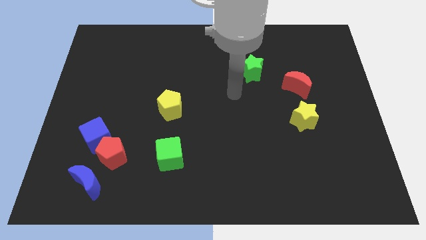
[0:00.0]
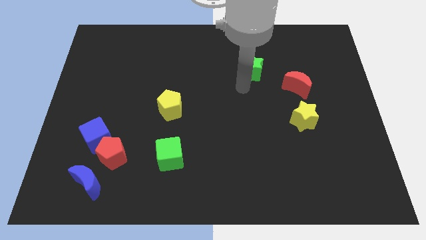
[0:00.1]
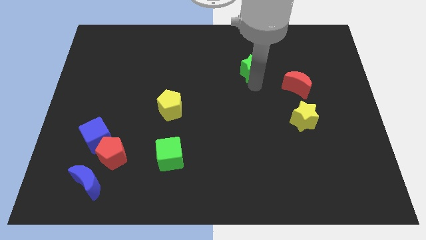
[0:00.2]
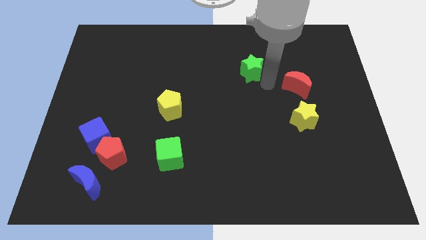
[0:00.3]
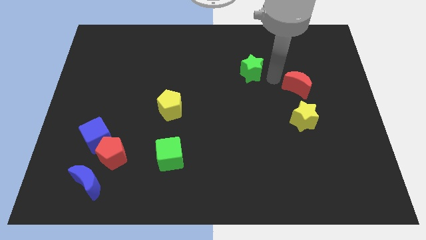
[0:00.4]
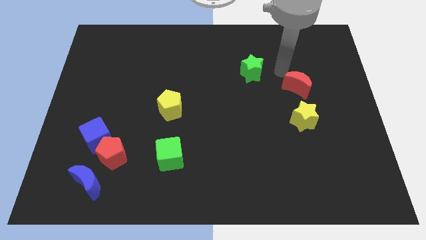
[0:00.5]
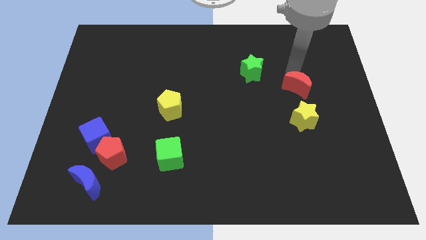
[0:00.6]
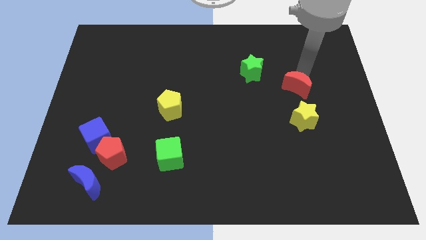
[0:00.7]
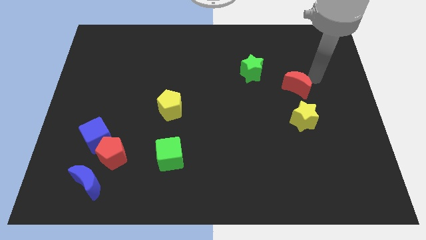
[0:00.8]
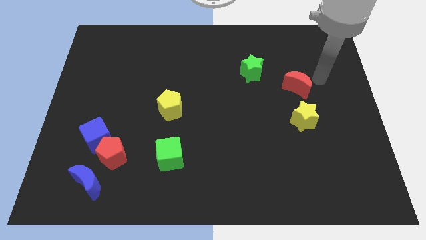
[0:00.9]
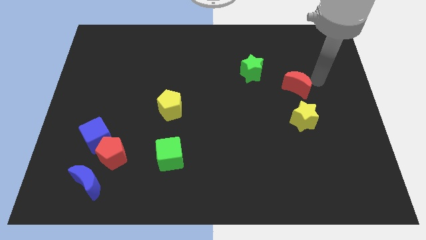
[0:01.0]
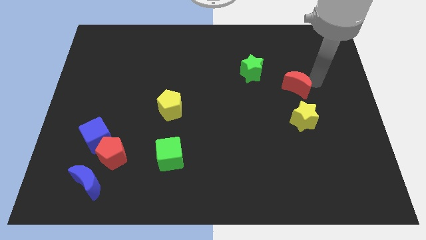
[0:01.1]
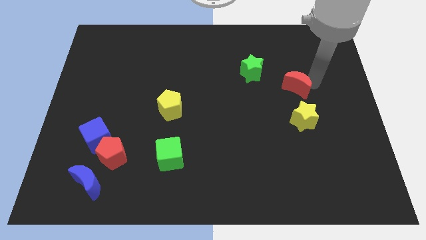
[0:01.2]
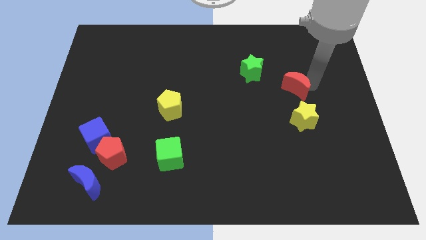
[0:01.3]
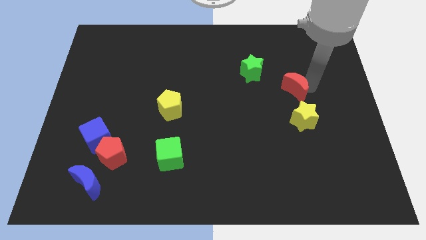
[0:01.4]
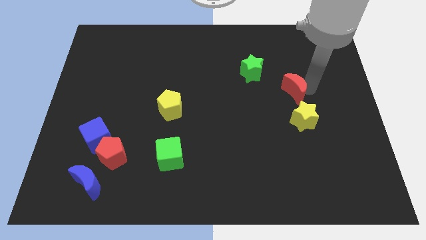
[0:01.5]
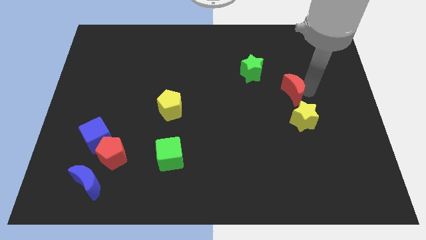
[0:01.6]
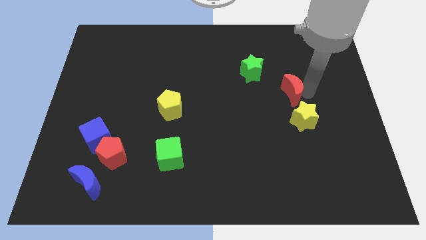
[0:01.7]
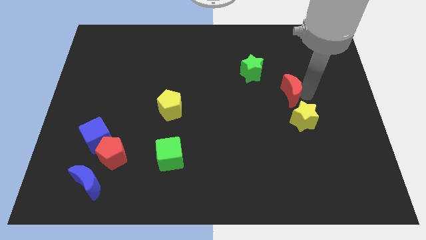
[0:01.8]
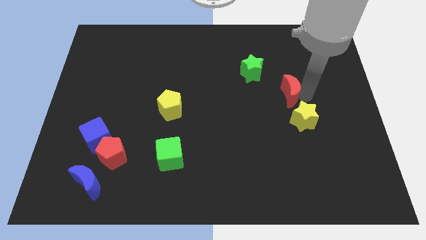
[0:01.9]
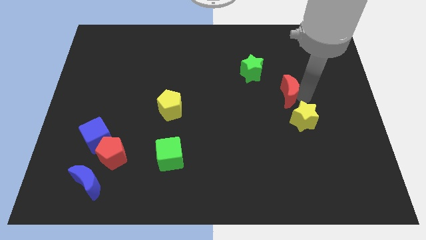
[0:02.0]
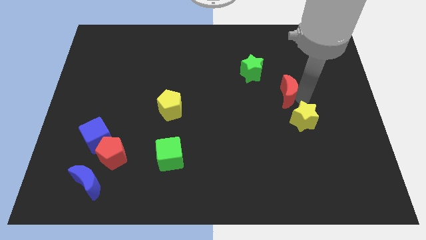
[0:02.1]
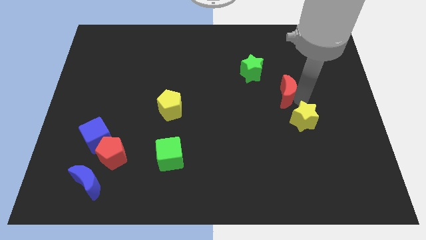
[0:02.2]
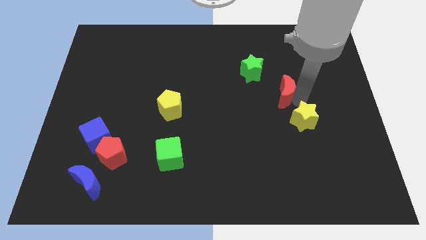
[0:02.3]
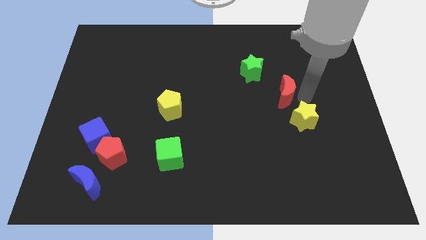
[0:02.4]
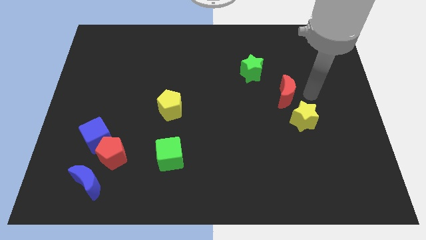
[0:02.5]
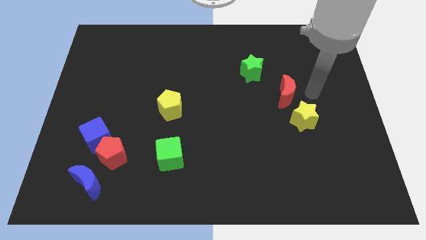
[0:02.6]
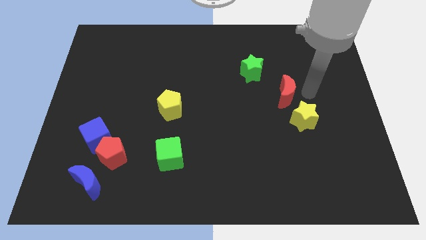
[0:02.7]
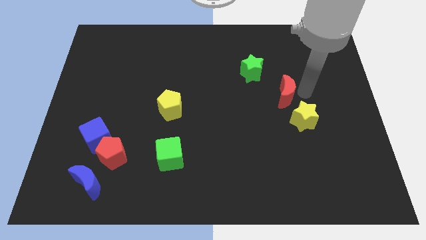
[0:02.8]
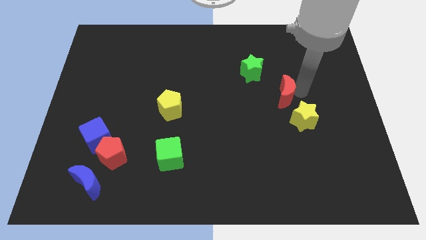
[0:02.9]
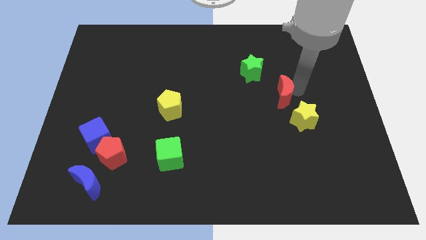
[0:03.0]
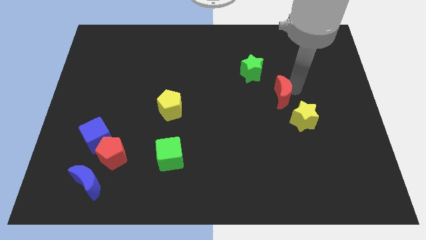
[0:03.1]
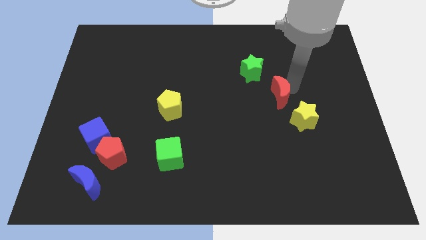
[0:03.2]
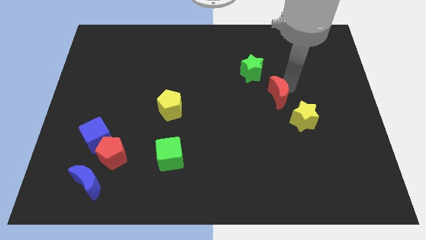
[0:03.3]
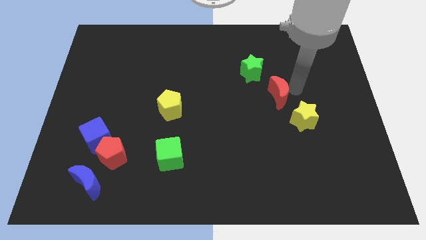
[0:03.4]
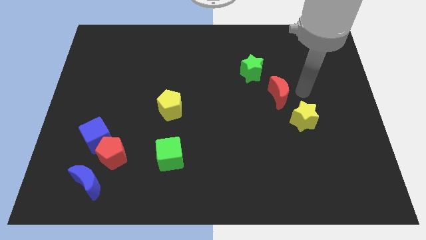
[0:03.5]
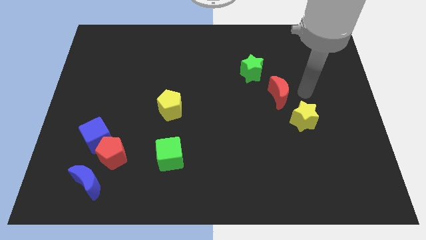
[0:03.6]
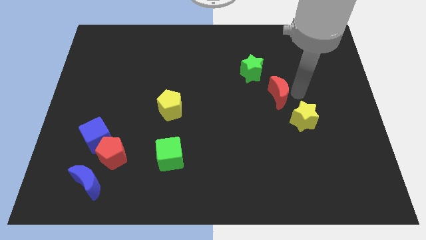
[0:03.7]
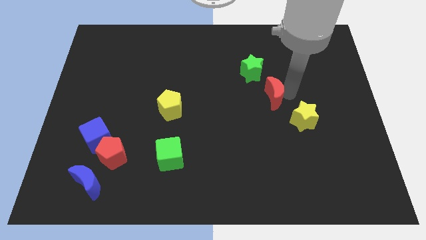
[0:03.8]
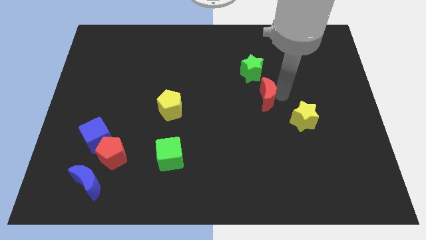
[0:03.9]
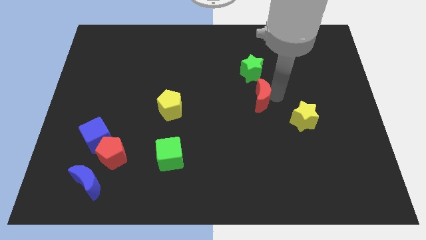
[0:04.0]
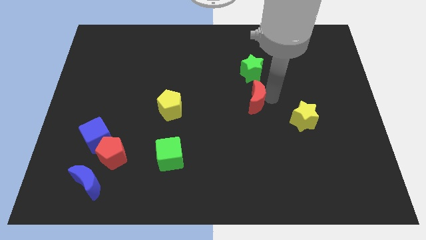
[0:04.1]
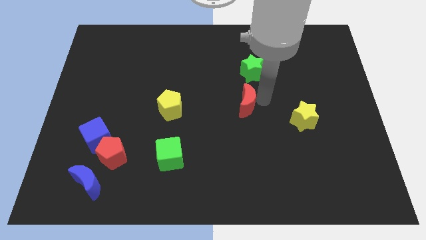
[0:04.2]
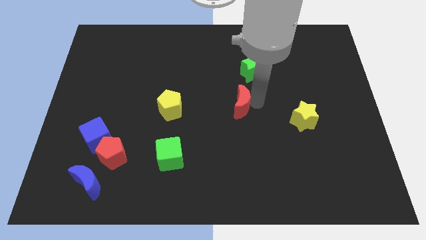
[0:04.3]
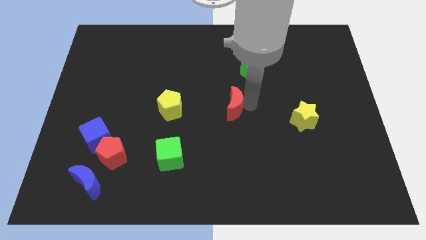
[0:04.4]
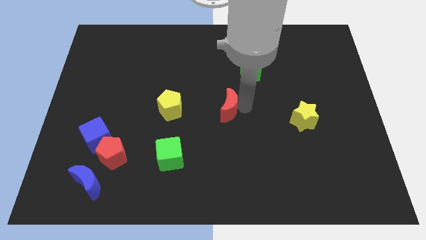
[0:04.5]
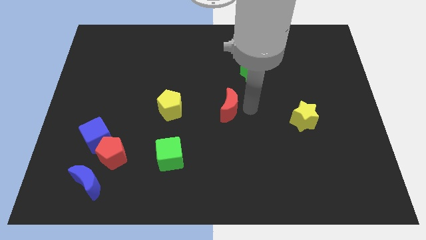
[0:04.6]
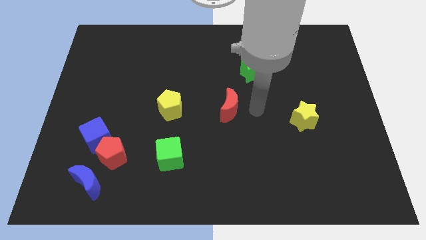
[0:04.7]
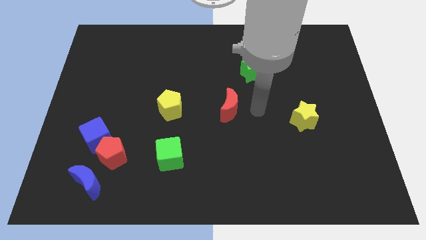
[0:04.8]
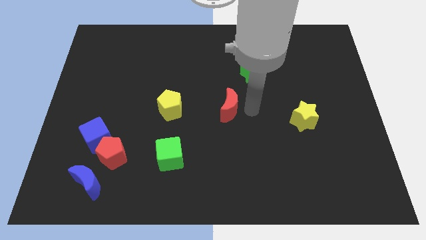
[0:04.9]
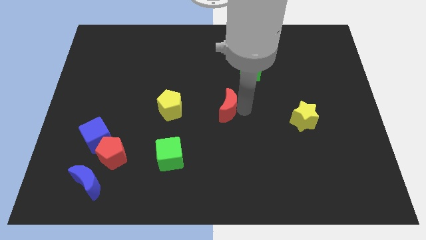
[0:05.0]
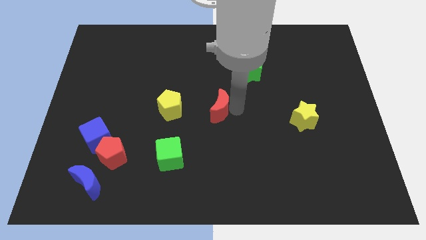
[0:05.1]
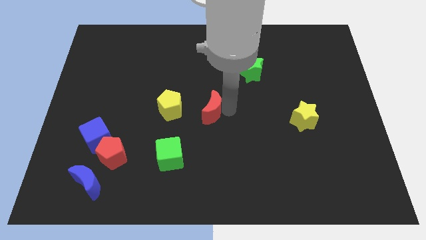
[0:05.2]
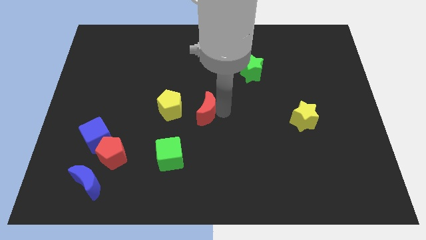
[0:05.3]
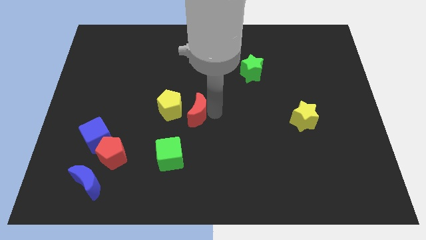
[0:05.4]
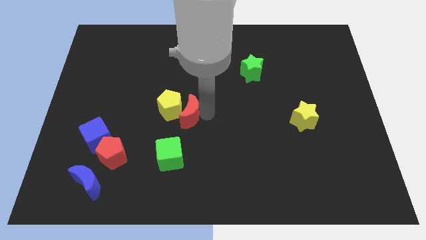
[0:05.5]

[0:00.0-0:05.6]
put the red moon close to the yellow pentagon

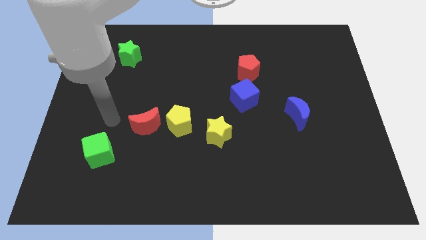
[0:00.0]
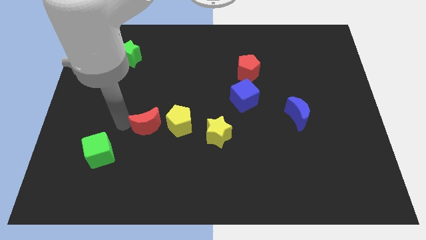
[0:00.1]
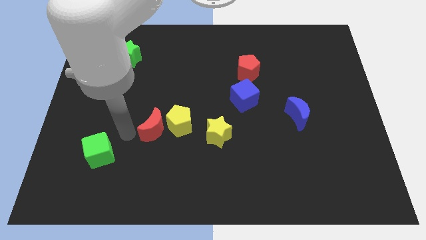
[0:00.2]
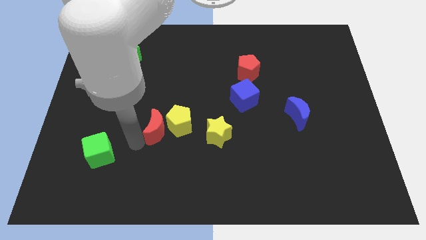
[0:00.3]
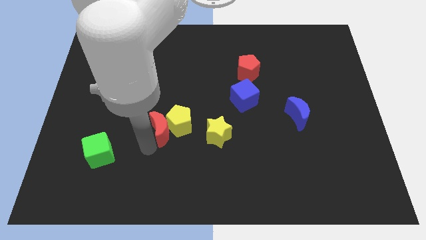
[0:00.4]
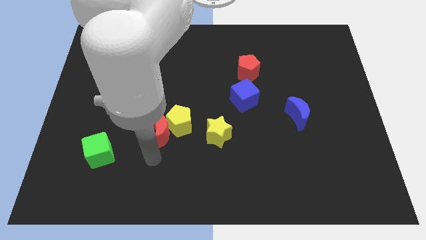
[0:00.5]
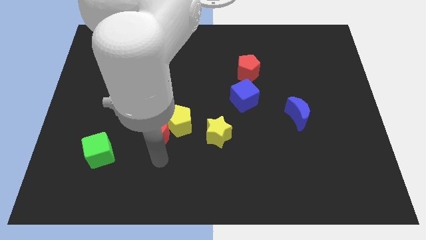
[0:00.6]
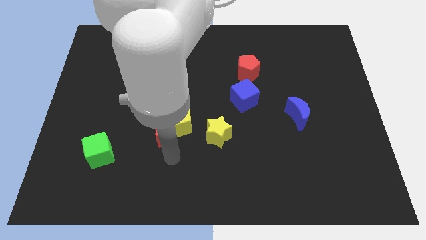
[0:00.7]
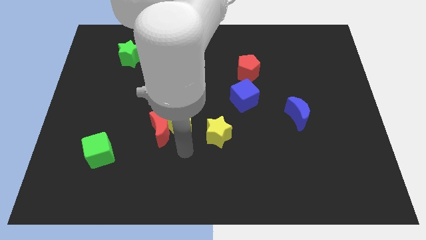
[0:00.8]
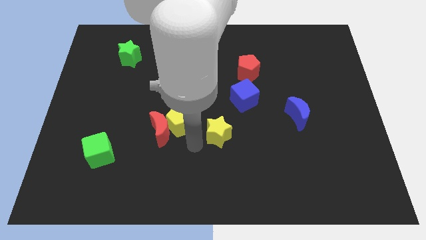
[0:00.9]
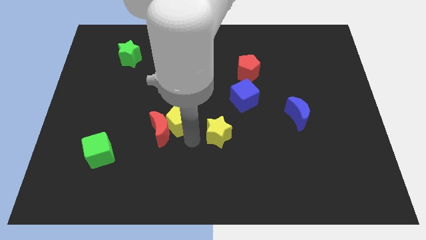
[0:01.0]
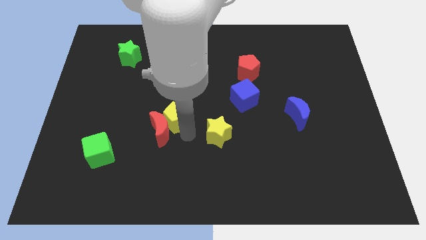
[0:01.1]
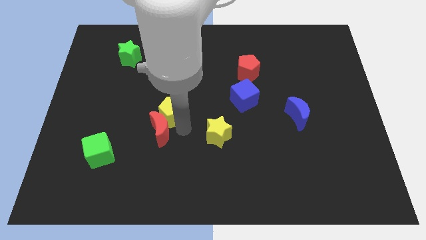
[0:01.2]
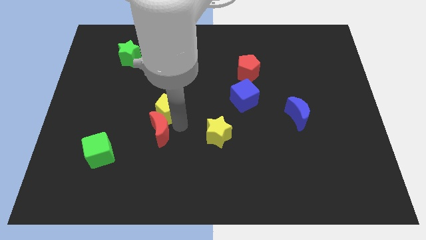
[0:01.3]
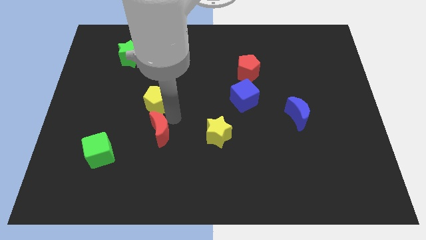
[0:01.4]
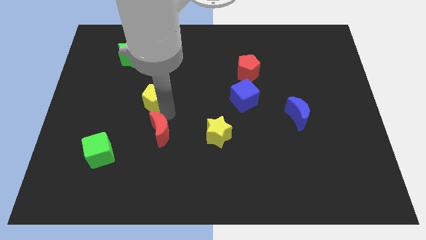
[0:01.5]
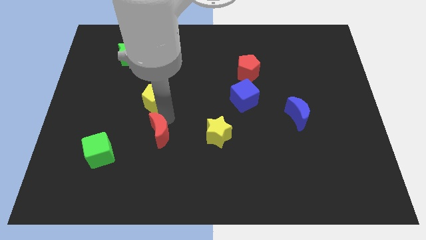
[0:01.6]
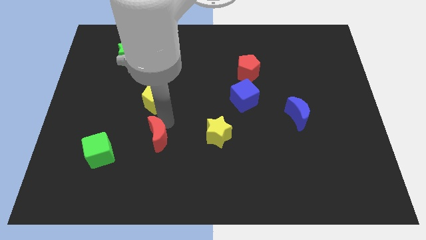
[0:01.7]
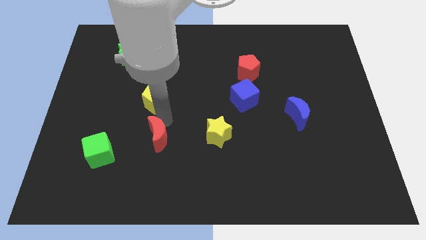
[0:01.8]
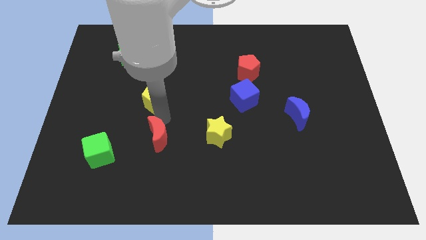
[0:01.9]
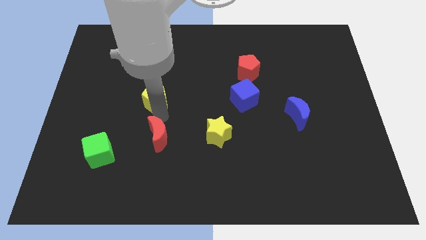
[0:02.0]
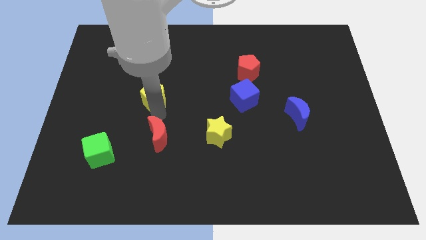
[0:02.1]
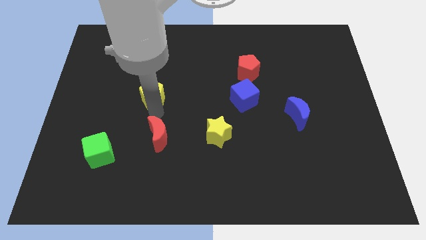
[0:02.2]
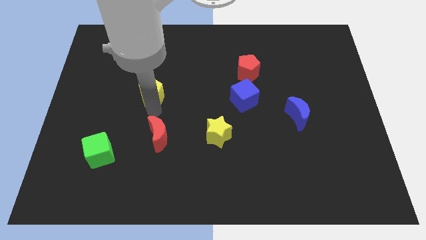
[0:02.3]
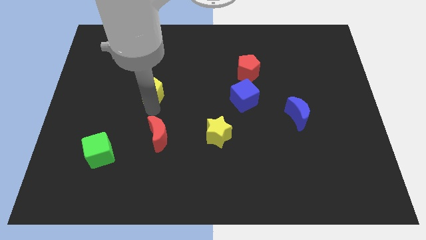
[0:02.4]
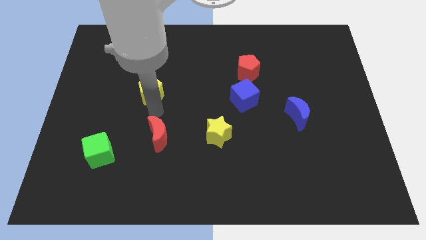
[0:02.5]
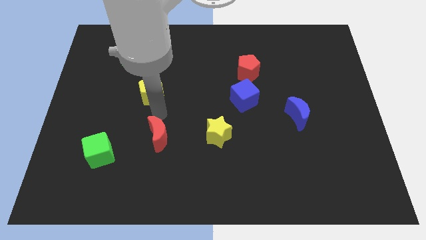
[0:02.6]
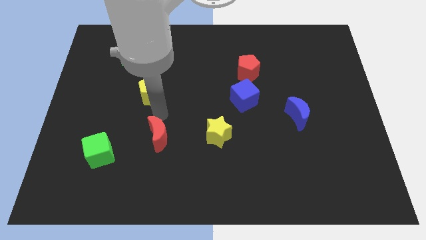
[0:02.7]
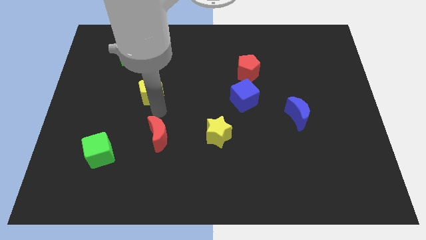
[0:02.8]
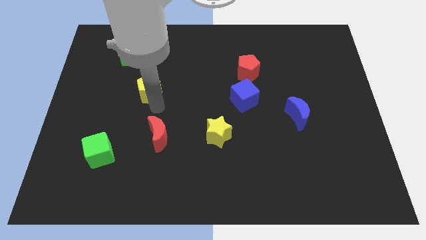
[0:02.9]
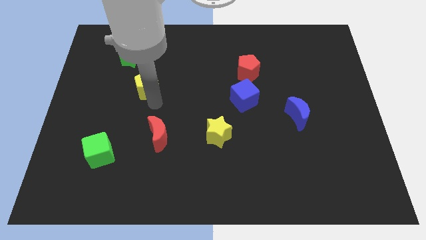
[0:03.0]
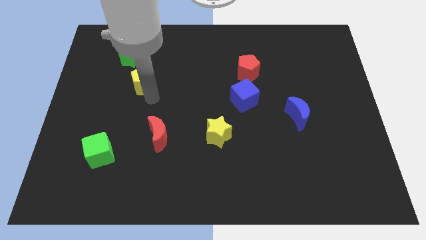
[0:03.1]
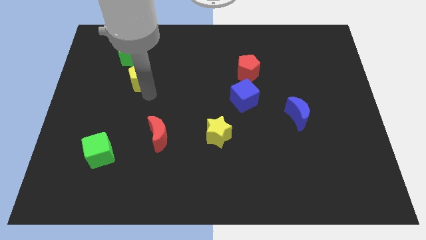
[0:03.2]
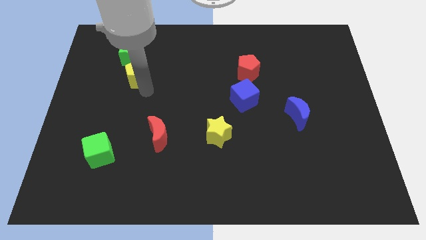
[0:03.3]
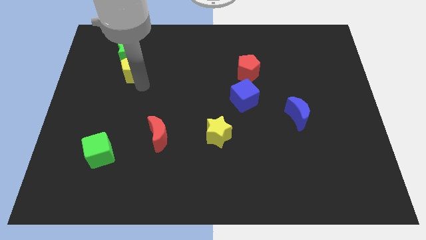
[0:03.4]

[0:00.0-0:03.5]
move the yellow pentagon towards the green star
